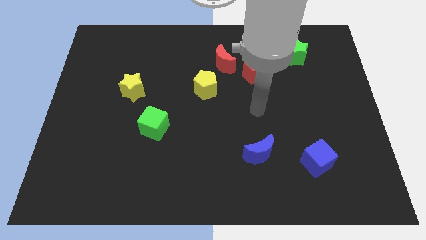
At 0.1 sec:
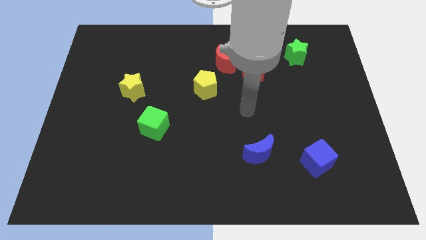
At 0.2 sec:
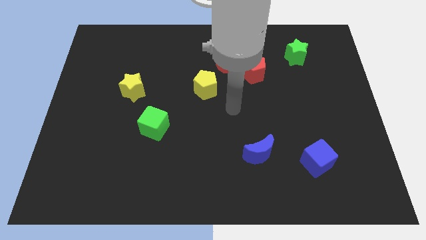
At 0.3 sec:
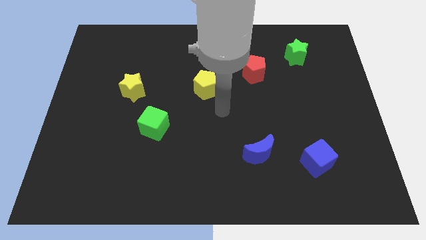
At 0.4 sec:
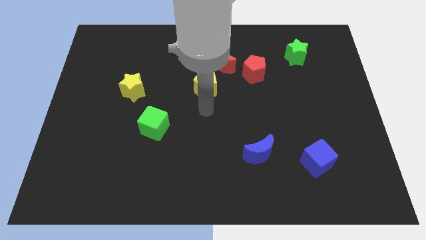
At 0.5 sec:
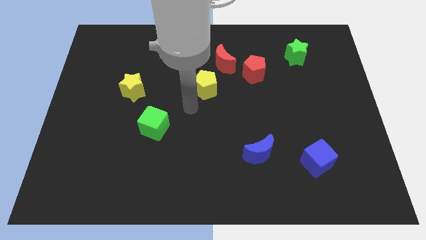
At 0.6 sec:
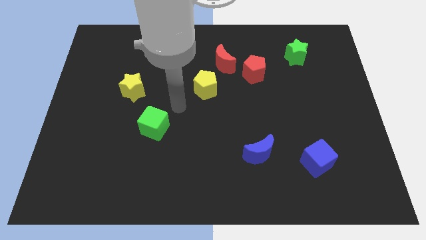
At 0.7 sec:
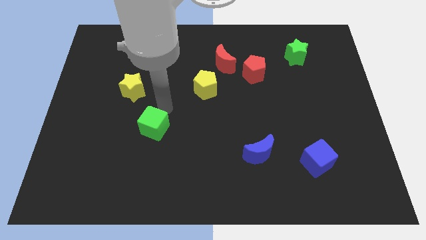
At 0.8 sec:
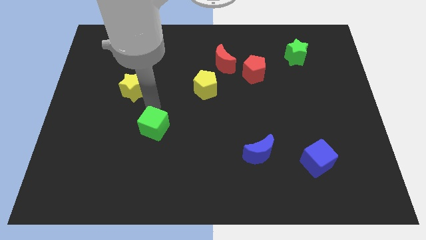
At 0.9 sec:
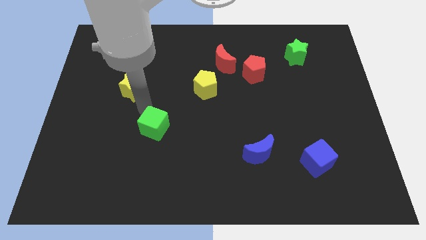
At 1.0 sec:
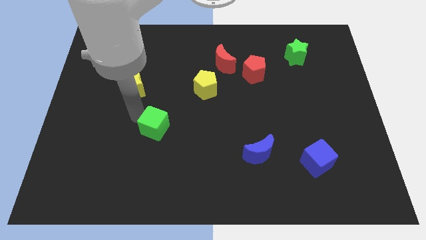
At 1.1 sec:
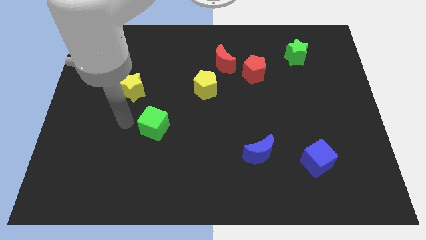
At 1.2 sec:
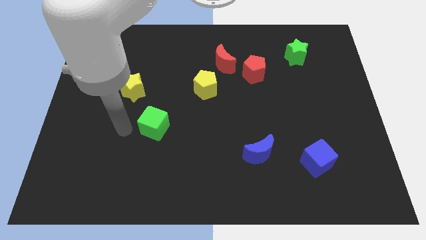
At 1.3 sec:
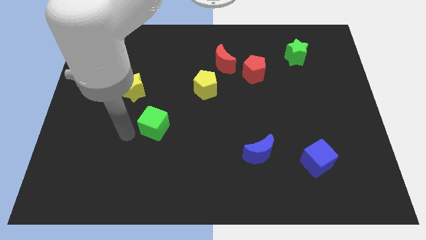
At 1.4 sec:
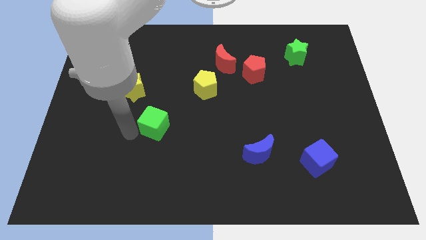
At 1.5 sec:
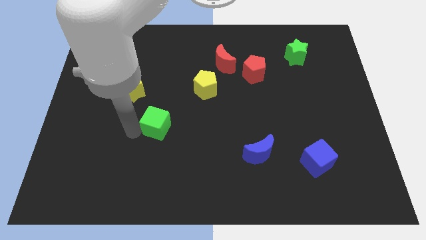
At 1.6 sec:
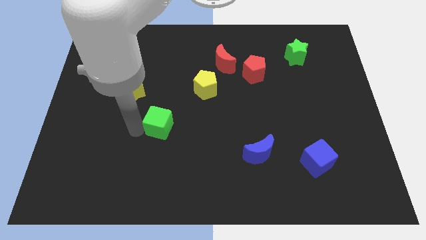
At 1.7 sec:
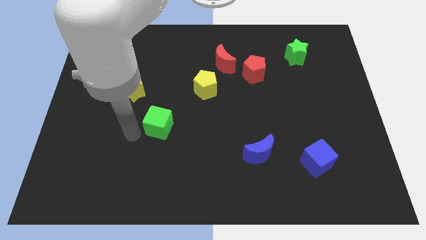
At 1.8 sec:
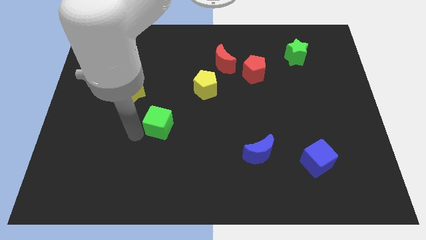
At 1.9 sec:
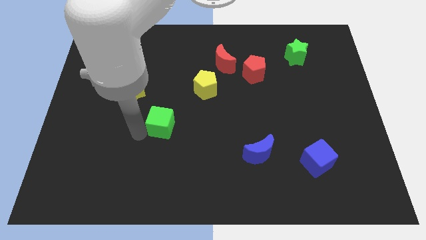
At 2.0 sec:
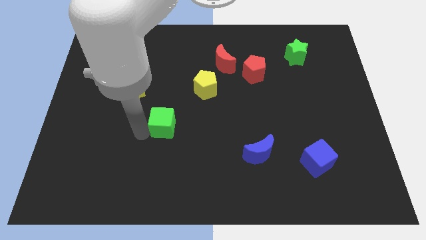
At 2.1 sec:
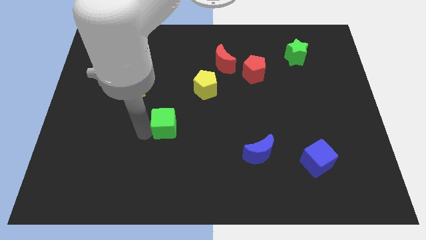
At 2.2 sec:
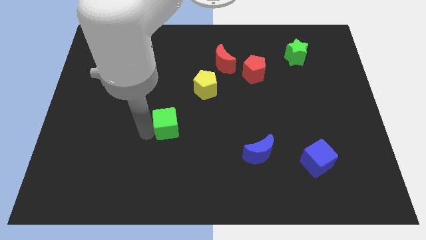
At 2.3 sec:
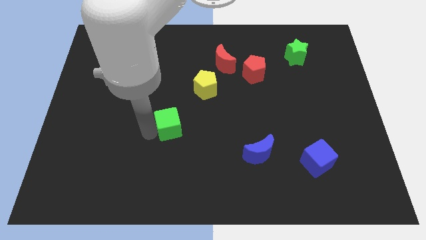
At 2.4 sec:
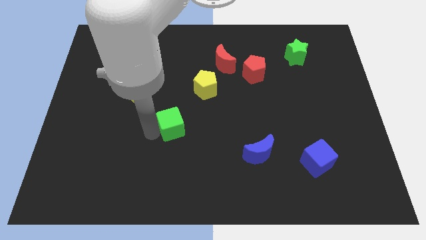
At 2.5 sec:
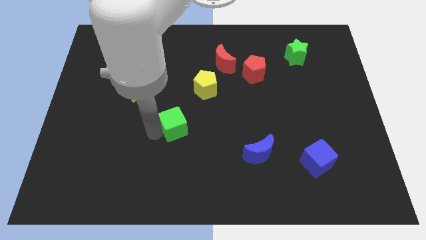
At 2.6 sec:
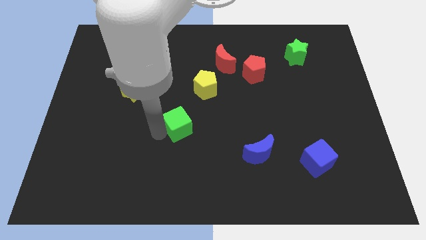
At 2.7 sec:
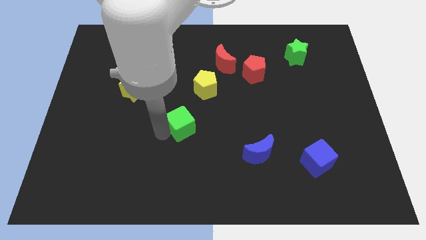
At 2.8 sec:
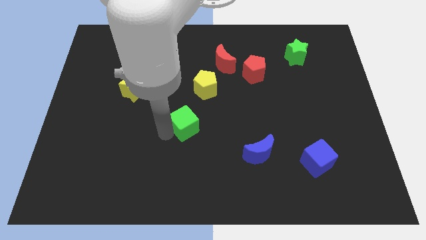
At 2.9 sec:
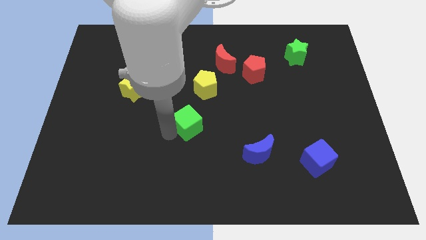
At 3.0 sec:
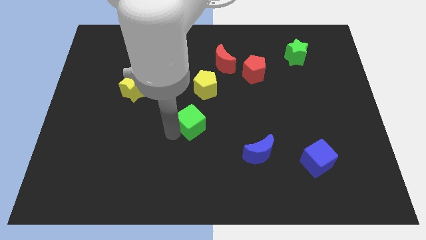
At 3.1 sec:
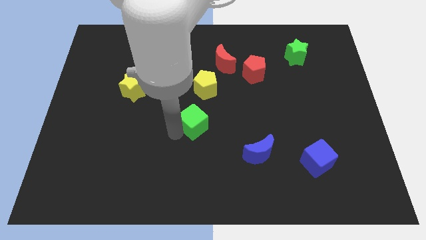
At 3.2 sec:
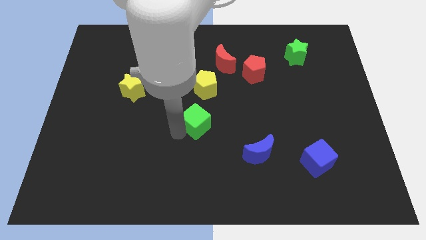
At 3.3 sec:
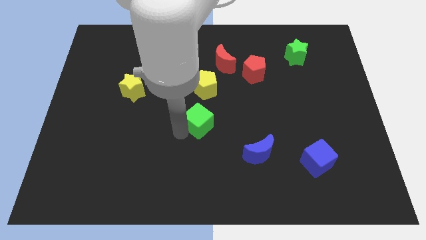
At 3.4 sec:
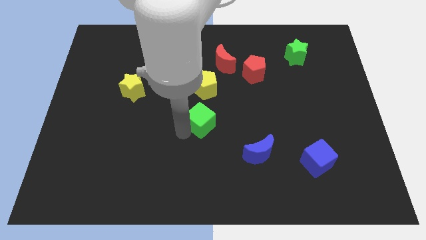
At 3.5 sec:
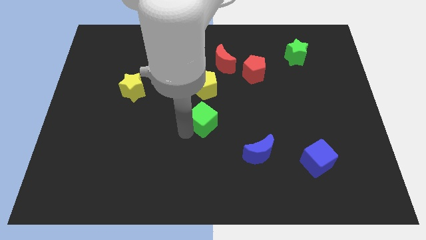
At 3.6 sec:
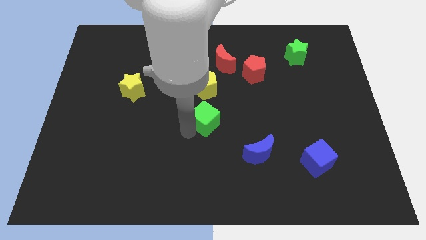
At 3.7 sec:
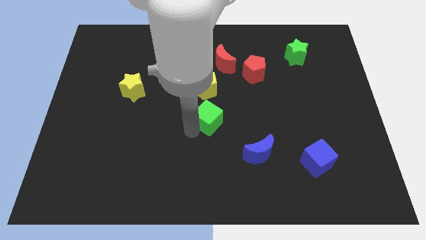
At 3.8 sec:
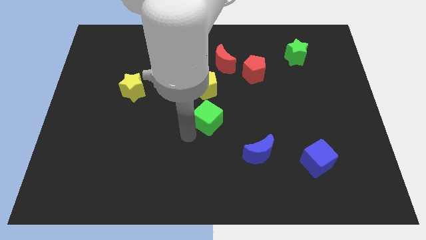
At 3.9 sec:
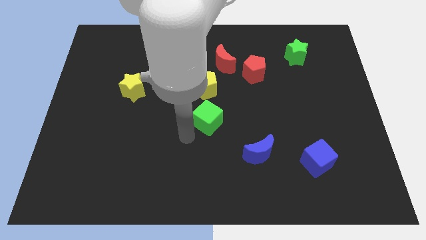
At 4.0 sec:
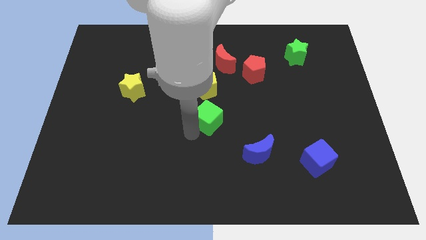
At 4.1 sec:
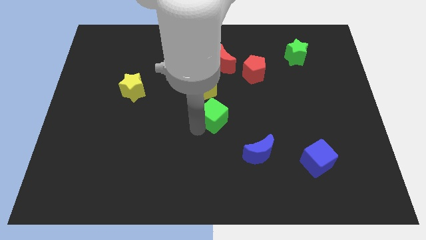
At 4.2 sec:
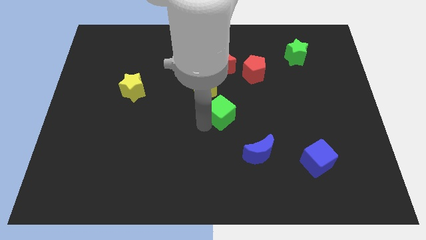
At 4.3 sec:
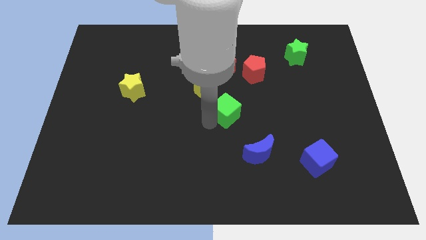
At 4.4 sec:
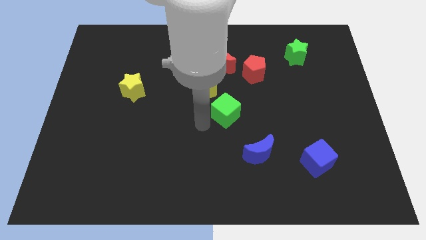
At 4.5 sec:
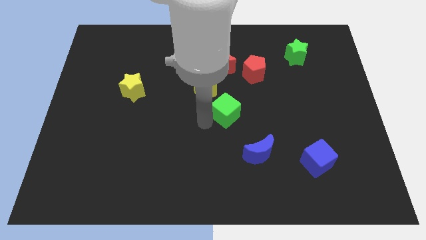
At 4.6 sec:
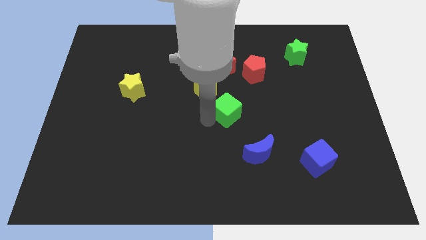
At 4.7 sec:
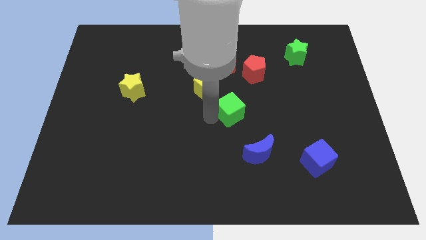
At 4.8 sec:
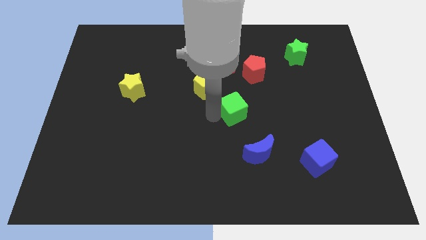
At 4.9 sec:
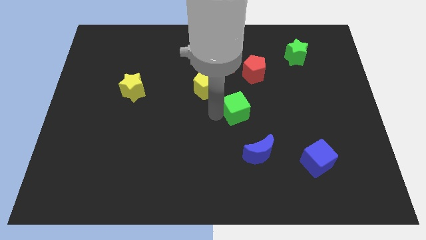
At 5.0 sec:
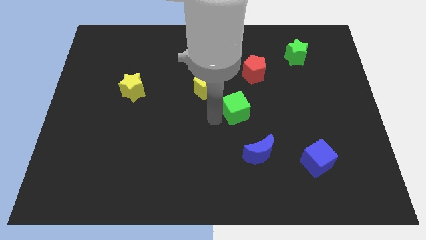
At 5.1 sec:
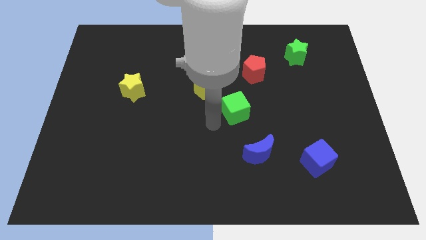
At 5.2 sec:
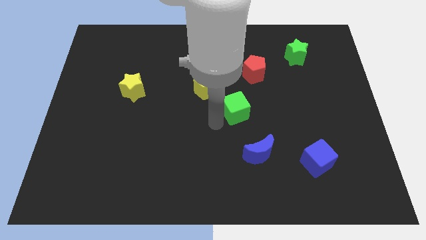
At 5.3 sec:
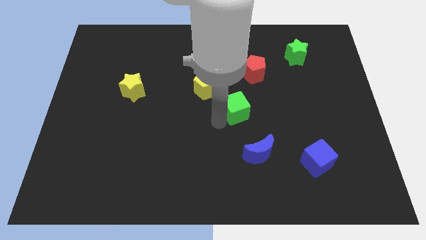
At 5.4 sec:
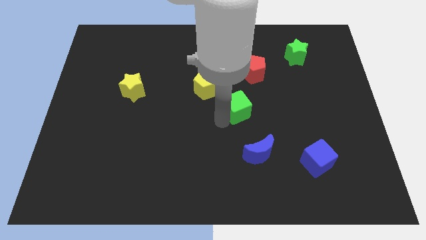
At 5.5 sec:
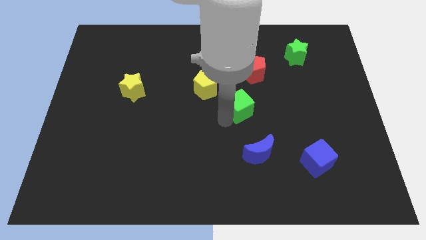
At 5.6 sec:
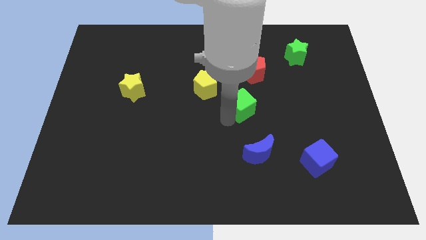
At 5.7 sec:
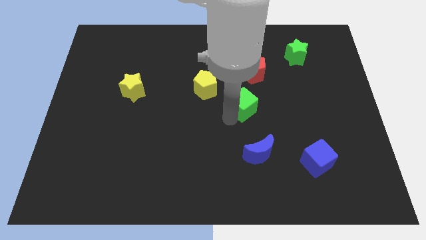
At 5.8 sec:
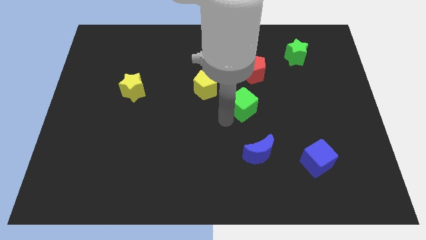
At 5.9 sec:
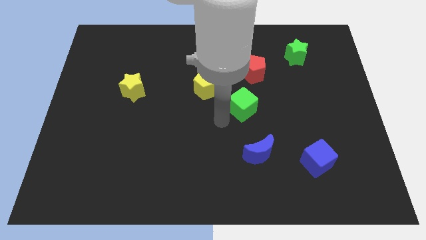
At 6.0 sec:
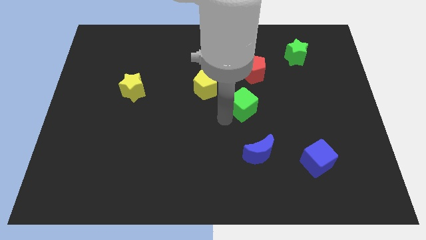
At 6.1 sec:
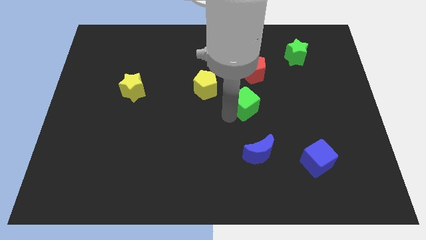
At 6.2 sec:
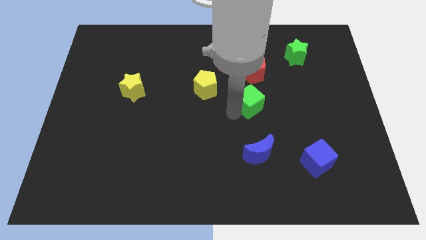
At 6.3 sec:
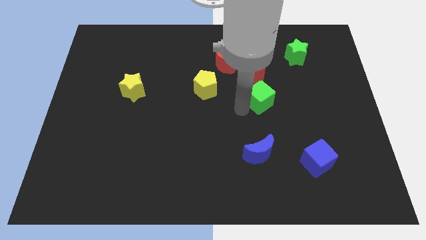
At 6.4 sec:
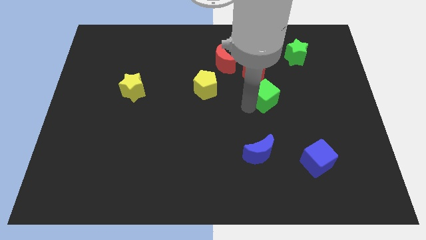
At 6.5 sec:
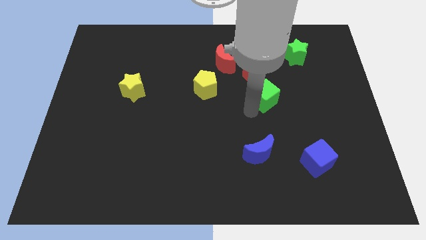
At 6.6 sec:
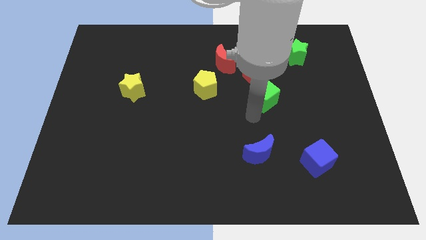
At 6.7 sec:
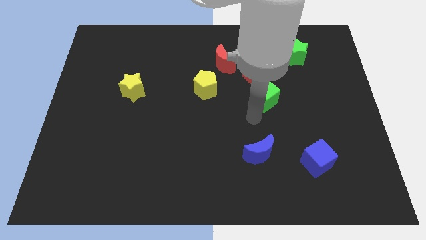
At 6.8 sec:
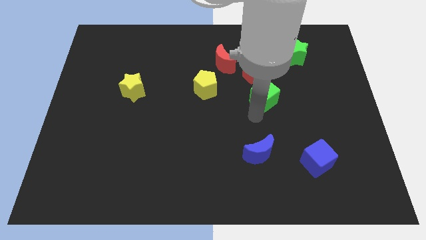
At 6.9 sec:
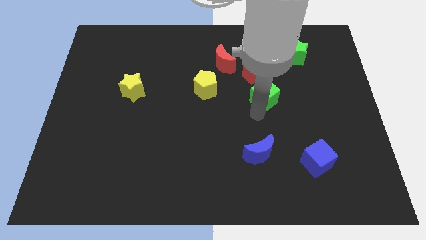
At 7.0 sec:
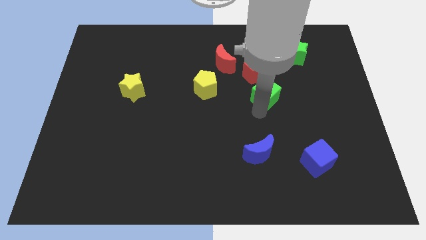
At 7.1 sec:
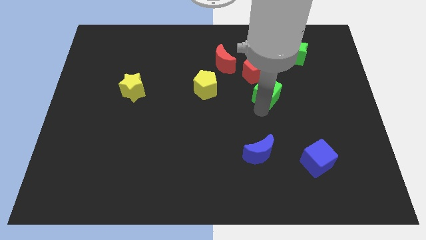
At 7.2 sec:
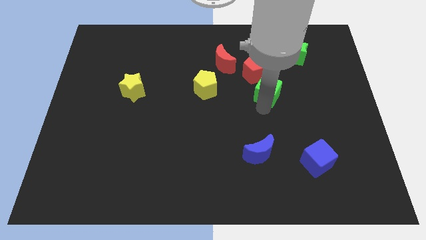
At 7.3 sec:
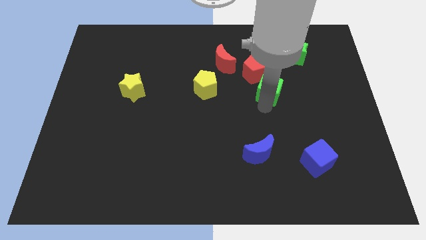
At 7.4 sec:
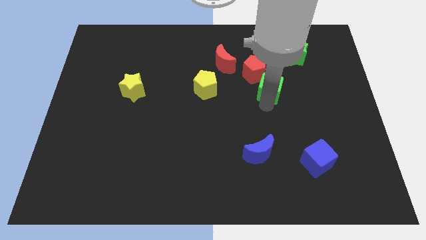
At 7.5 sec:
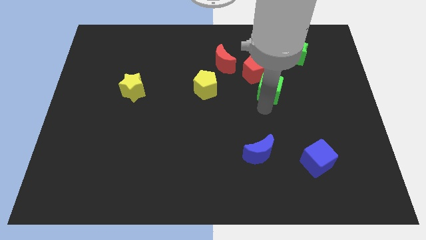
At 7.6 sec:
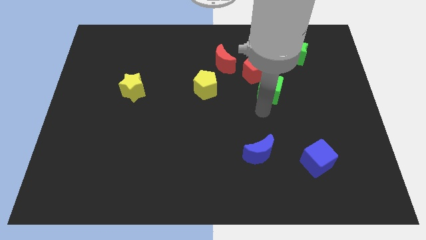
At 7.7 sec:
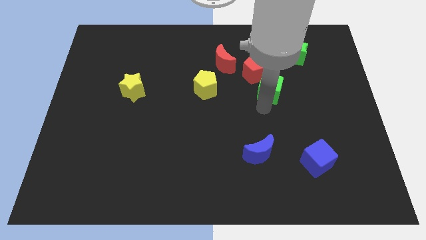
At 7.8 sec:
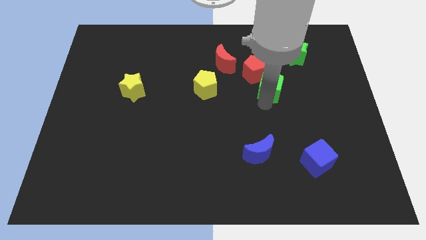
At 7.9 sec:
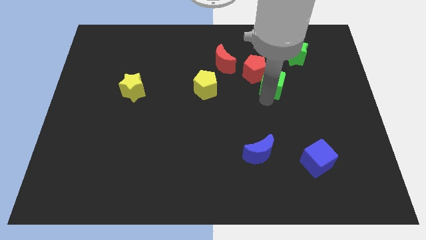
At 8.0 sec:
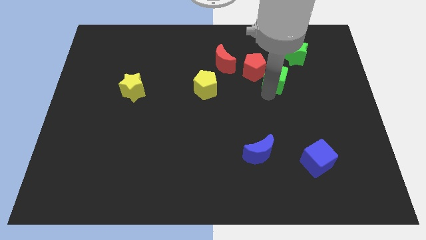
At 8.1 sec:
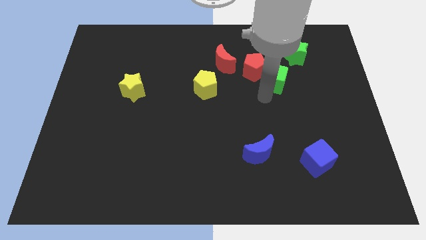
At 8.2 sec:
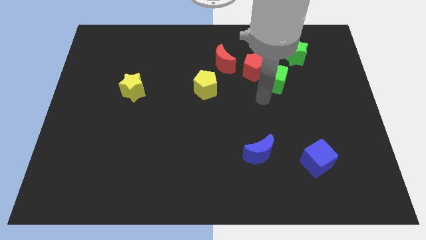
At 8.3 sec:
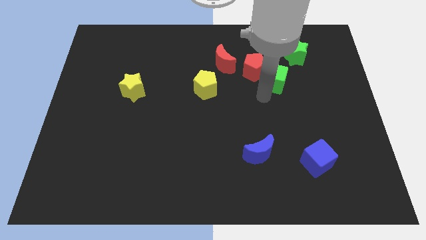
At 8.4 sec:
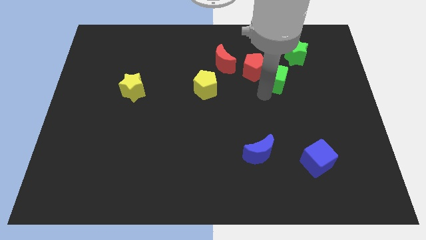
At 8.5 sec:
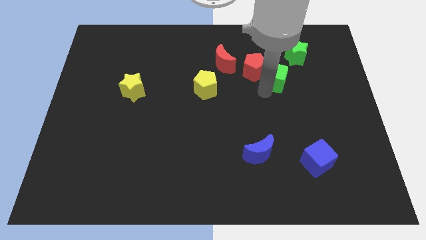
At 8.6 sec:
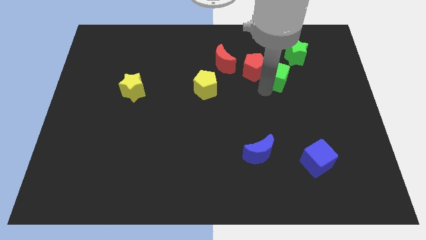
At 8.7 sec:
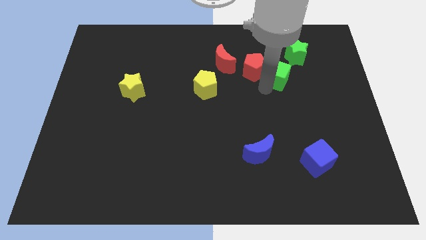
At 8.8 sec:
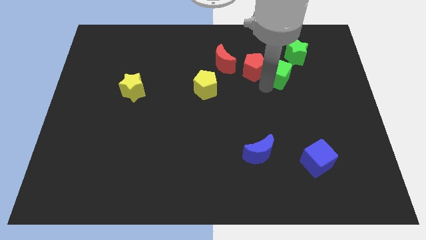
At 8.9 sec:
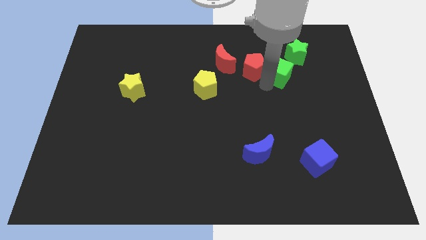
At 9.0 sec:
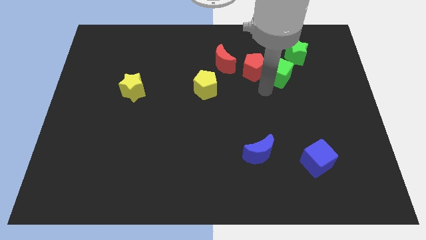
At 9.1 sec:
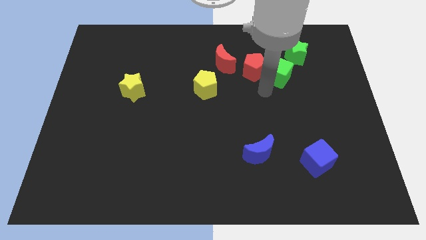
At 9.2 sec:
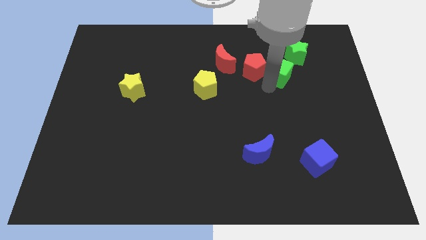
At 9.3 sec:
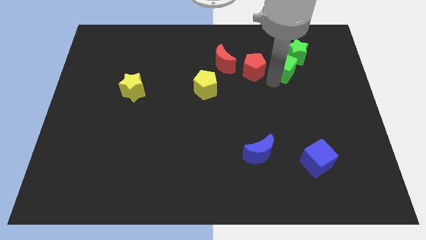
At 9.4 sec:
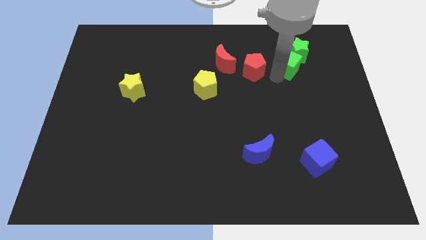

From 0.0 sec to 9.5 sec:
put the green cube close to the green star
